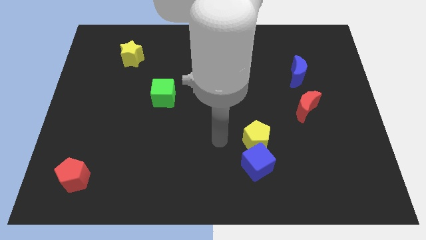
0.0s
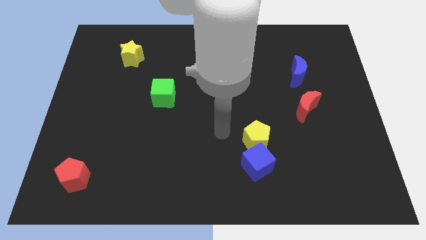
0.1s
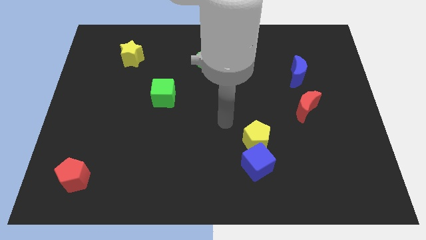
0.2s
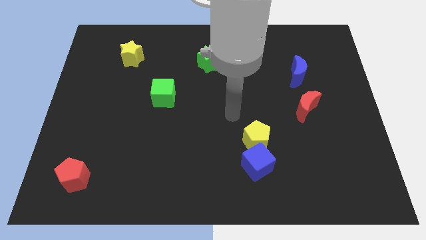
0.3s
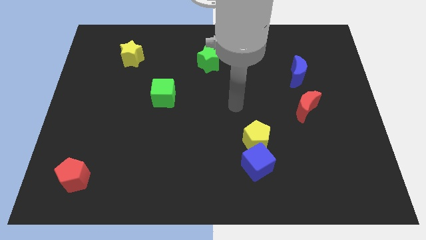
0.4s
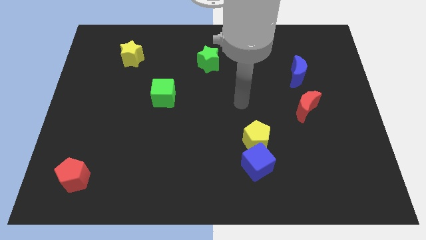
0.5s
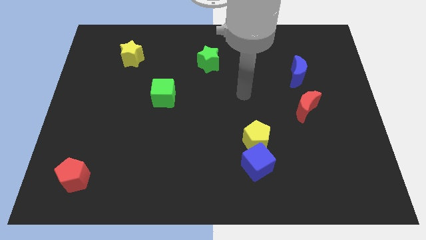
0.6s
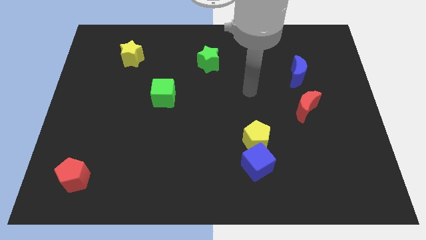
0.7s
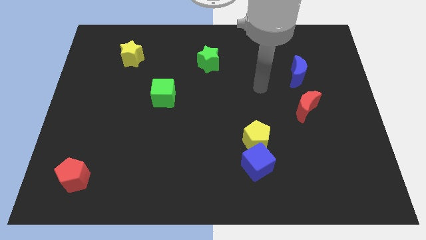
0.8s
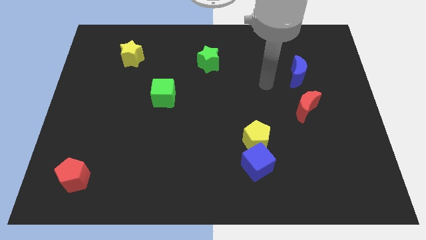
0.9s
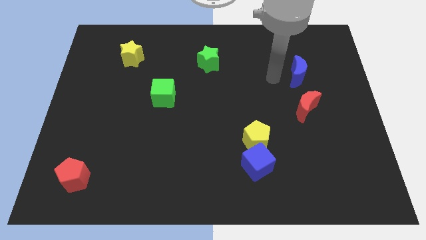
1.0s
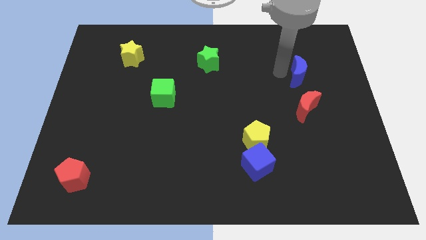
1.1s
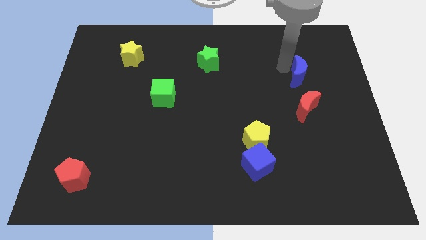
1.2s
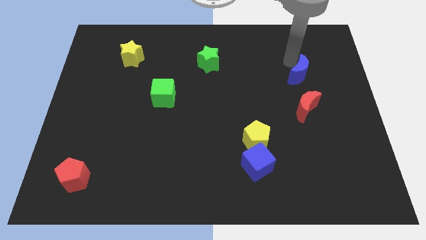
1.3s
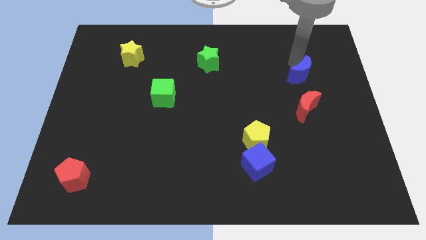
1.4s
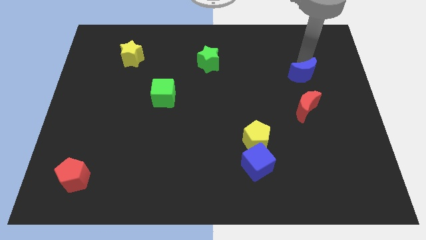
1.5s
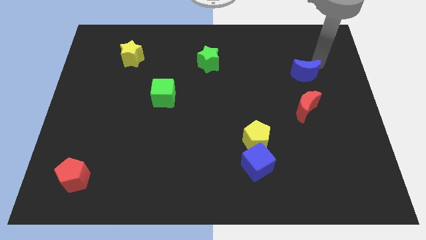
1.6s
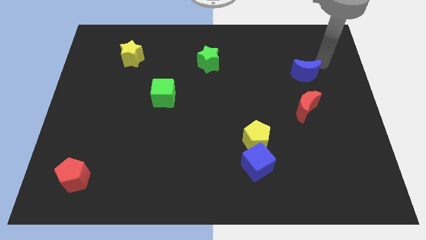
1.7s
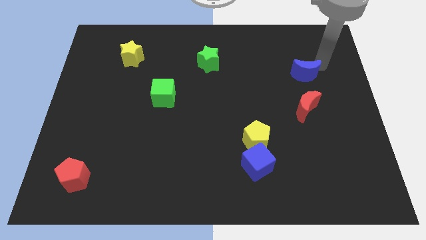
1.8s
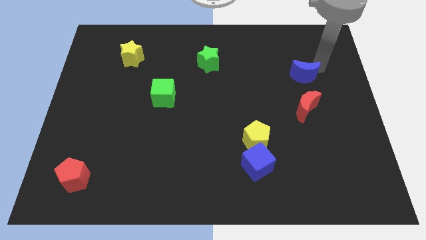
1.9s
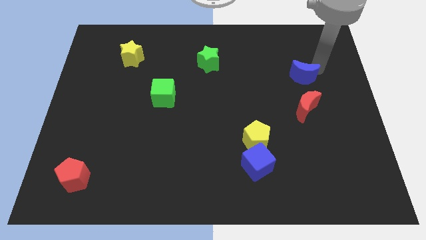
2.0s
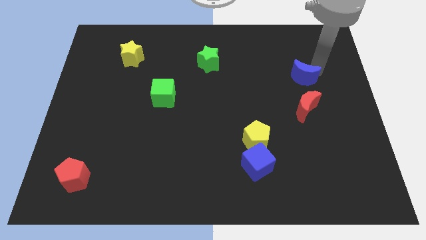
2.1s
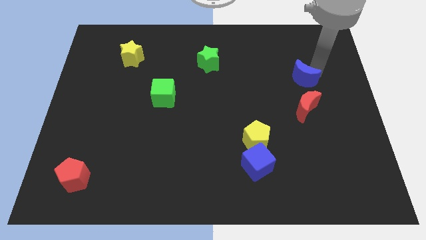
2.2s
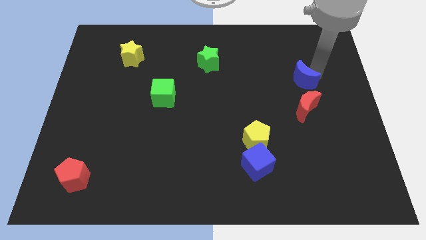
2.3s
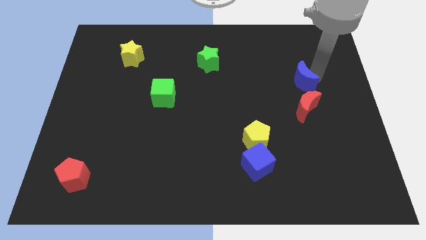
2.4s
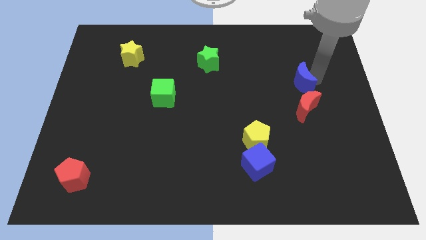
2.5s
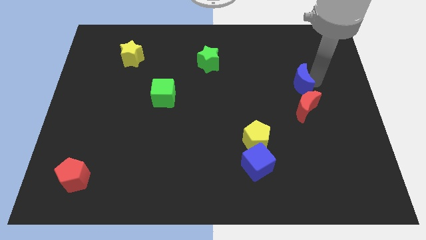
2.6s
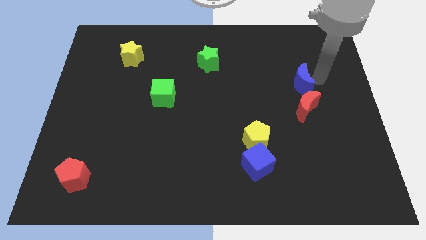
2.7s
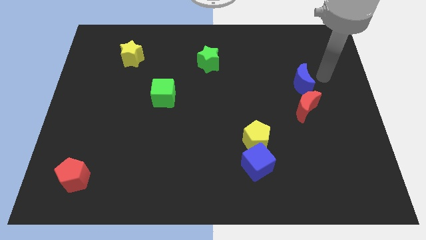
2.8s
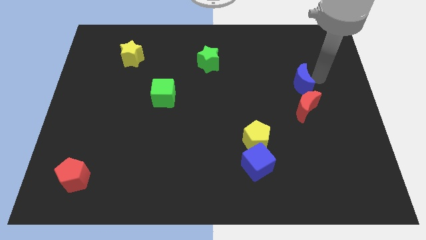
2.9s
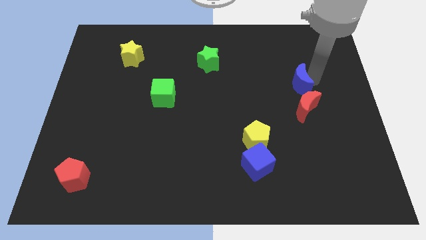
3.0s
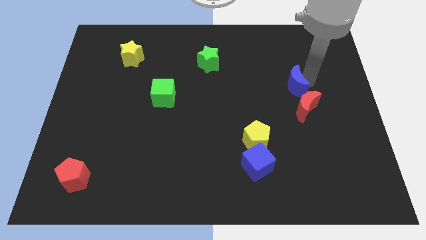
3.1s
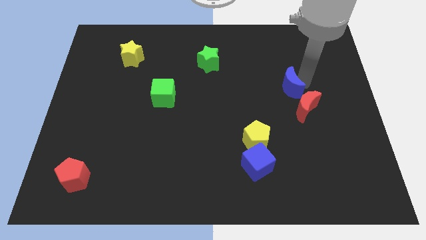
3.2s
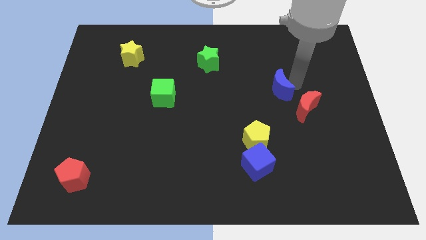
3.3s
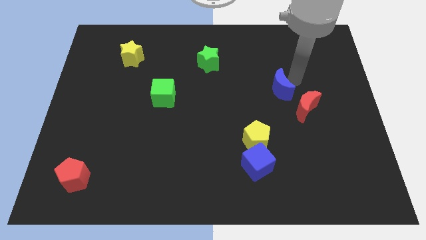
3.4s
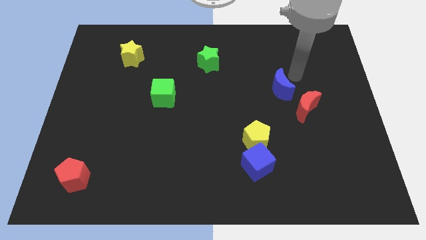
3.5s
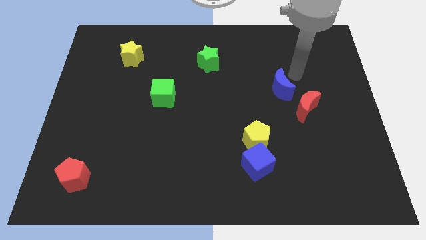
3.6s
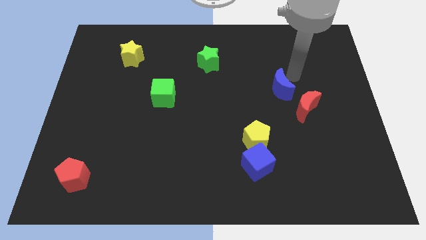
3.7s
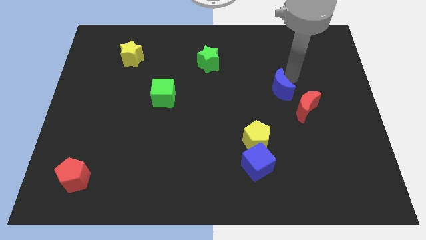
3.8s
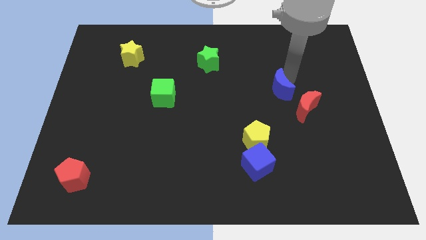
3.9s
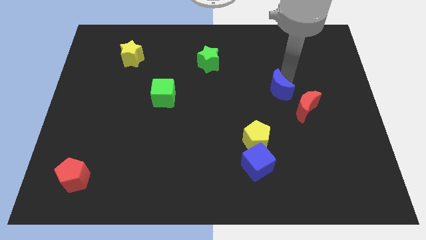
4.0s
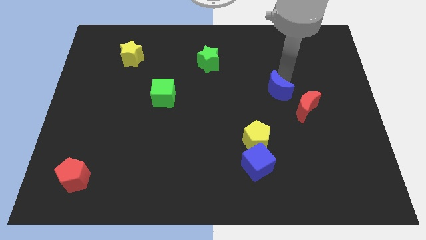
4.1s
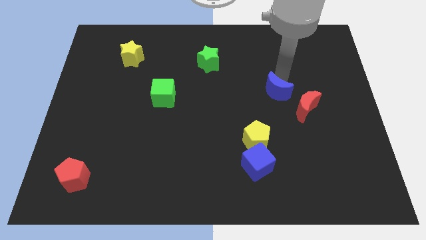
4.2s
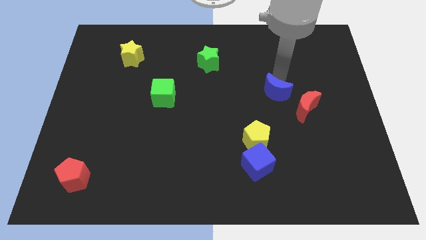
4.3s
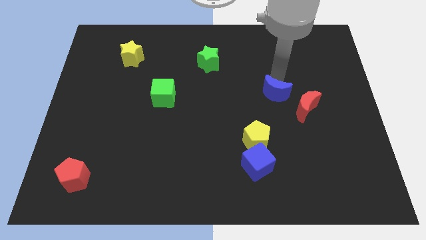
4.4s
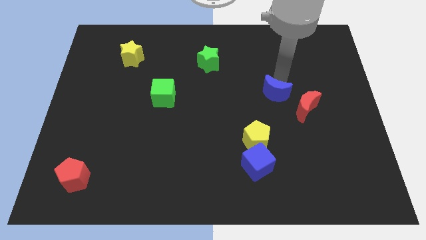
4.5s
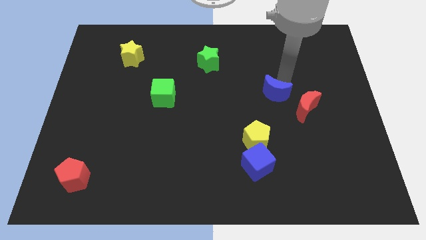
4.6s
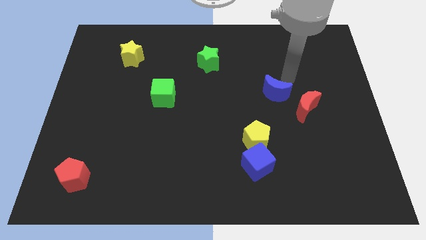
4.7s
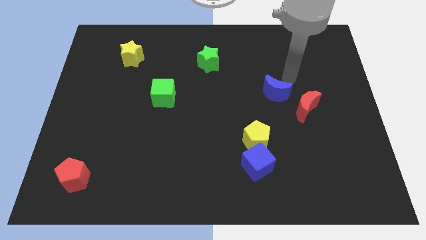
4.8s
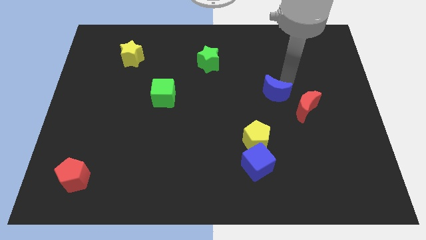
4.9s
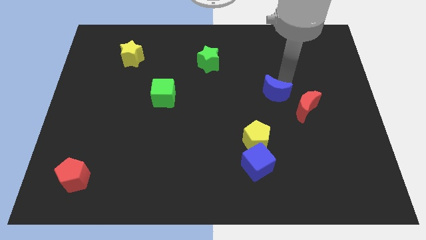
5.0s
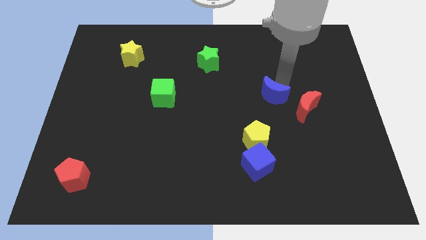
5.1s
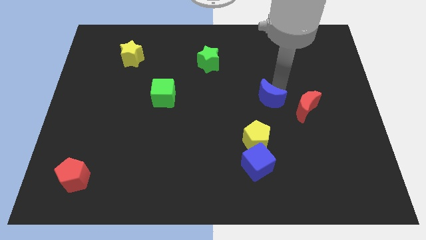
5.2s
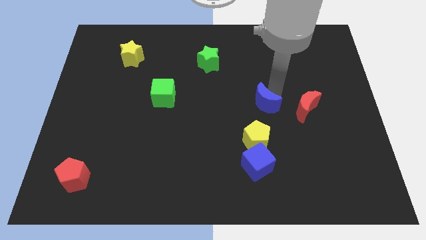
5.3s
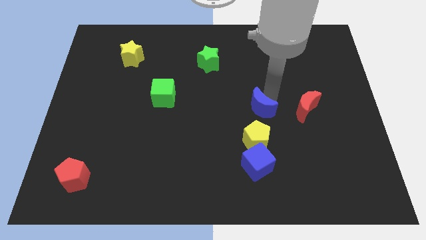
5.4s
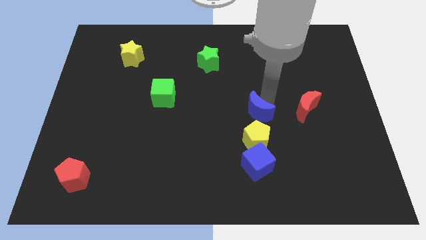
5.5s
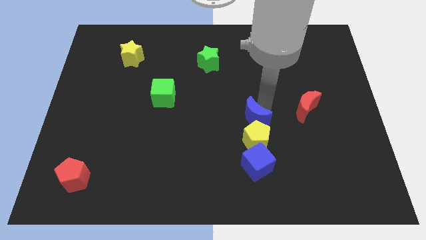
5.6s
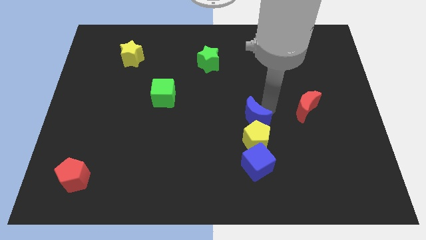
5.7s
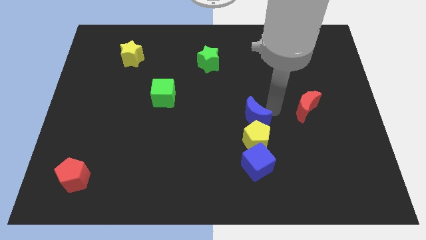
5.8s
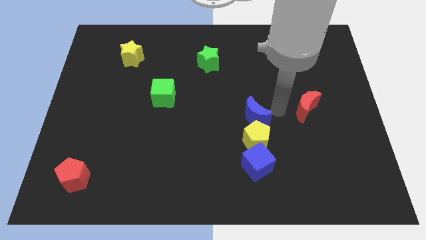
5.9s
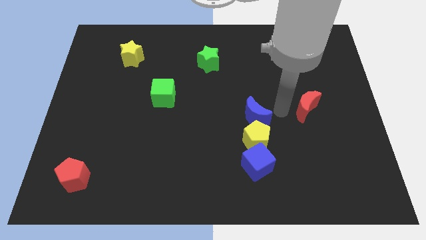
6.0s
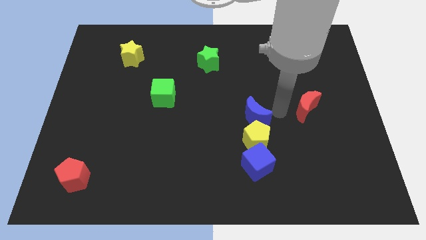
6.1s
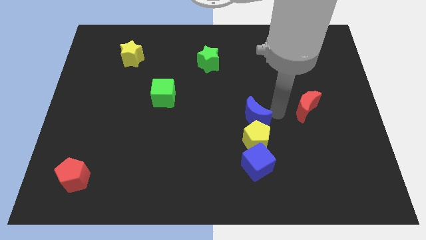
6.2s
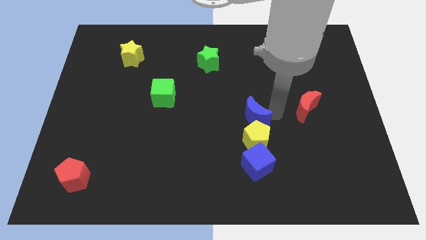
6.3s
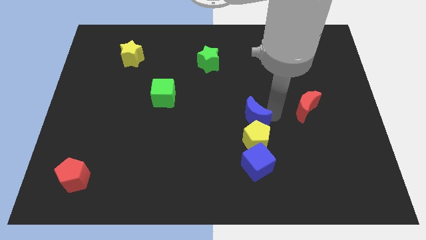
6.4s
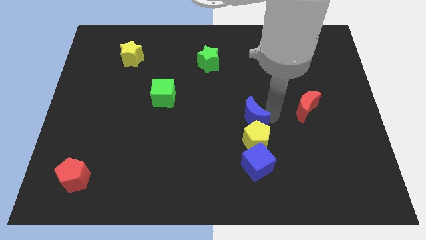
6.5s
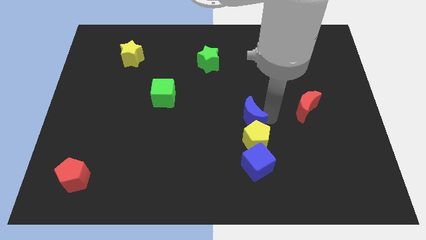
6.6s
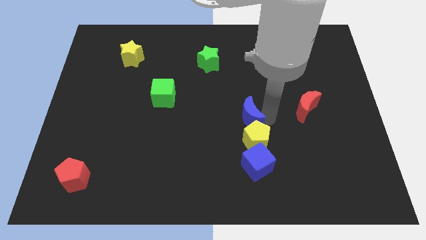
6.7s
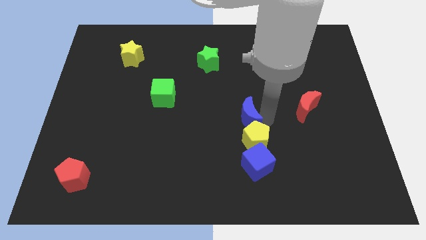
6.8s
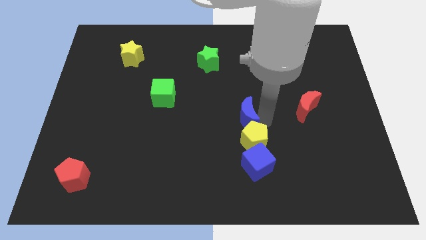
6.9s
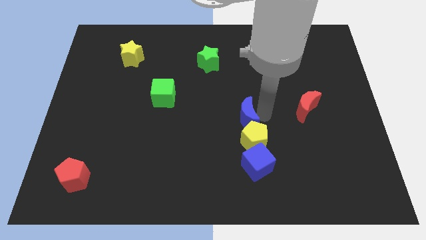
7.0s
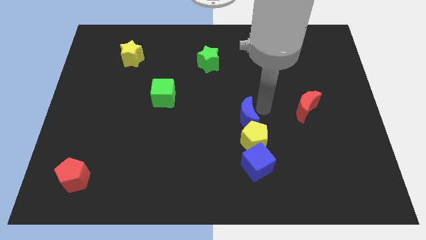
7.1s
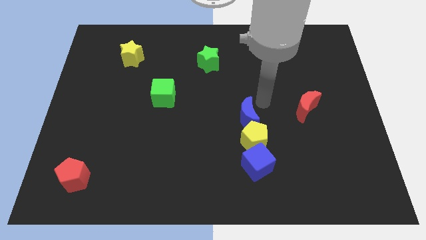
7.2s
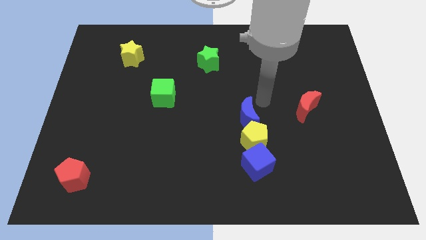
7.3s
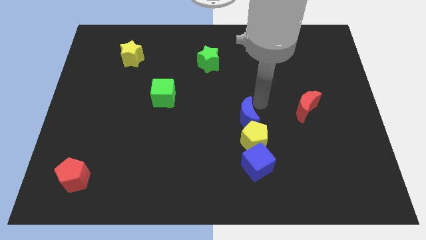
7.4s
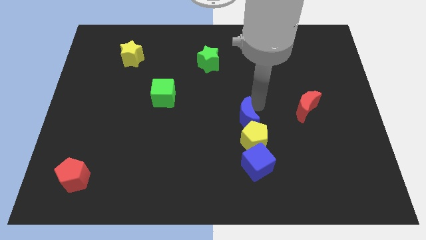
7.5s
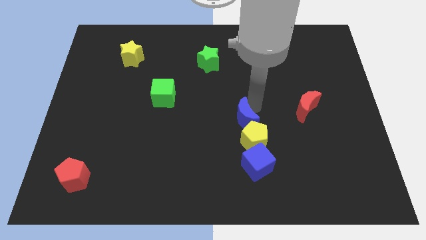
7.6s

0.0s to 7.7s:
push the blue moon diagonally down and to the left

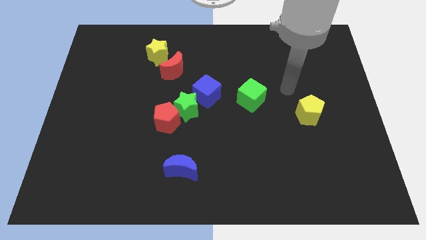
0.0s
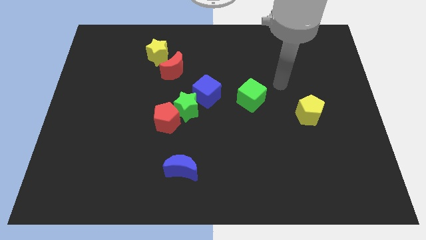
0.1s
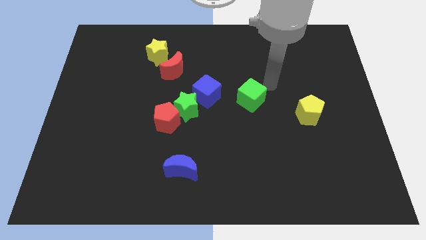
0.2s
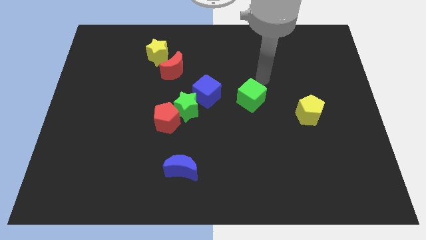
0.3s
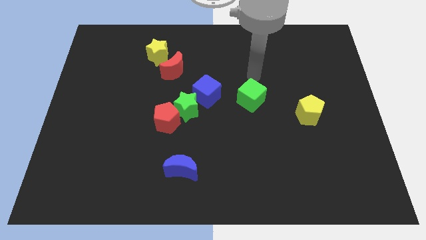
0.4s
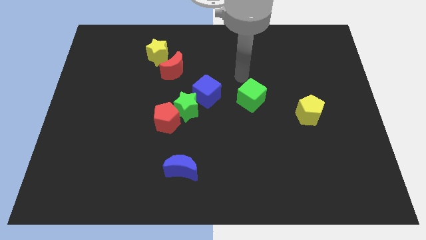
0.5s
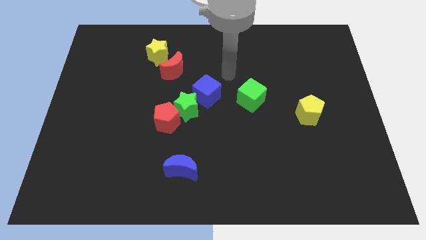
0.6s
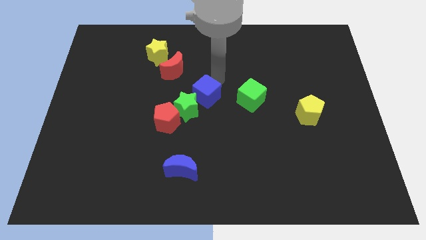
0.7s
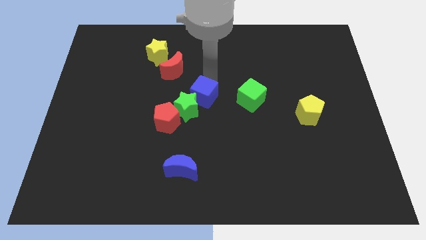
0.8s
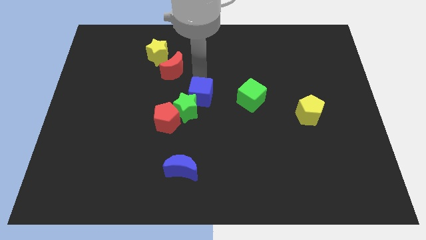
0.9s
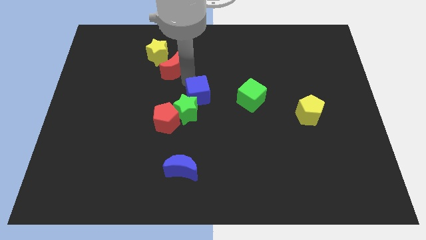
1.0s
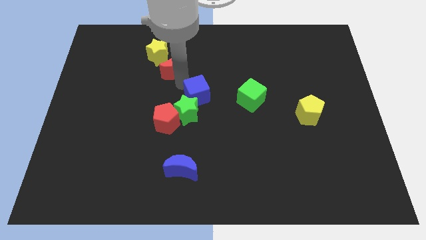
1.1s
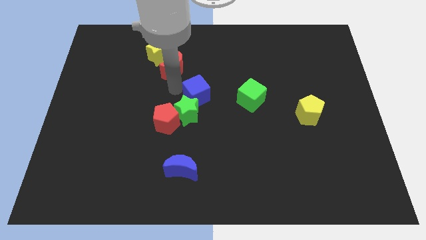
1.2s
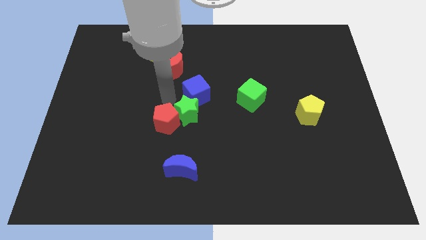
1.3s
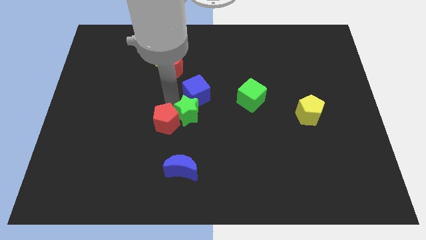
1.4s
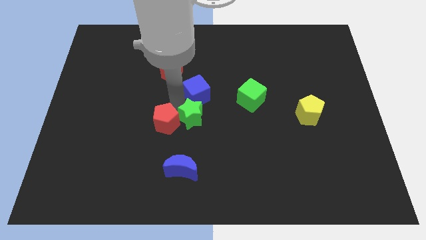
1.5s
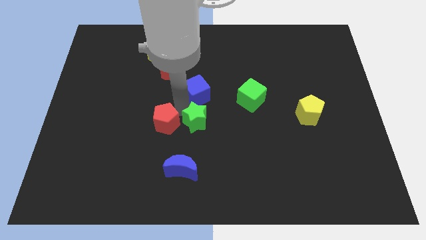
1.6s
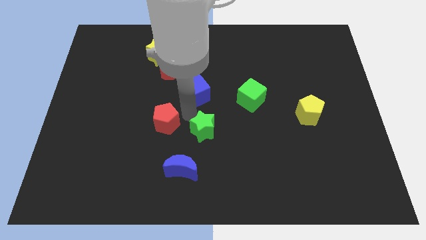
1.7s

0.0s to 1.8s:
push the green star a bit downwards and to the right diagonally
